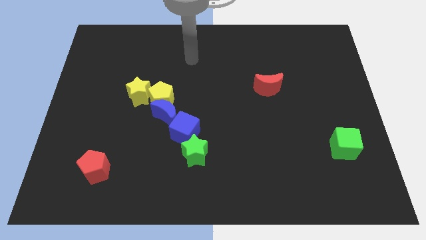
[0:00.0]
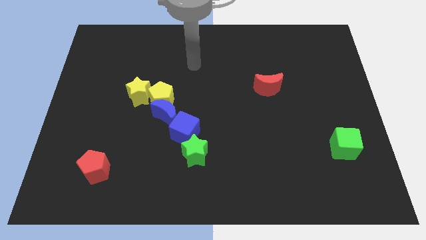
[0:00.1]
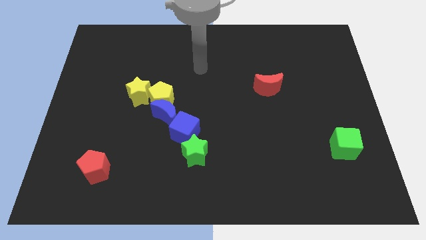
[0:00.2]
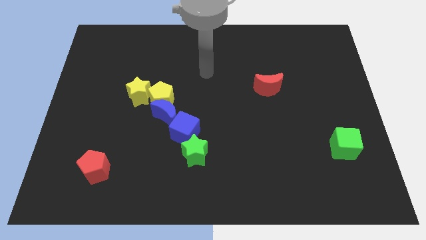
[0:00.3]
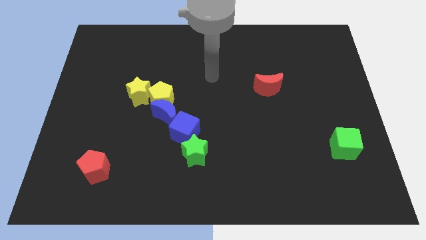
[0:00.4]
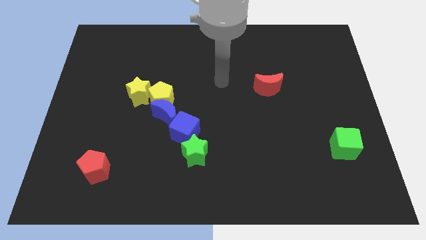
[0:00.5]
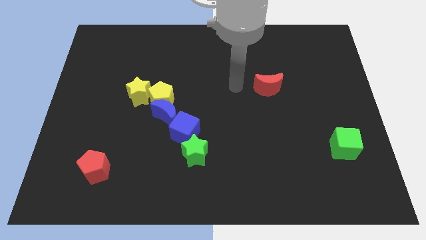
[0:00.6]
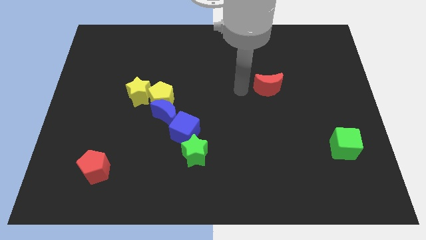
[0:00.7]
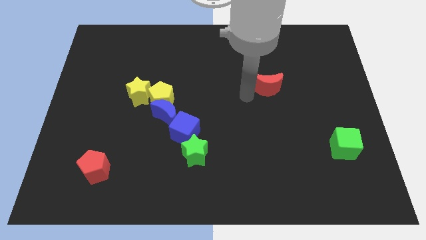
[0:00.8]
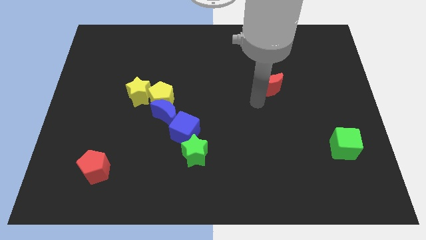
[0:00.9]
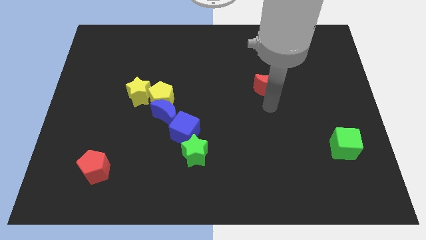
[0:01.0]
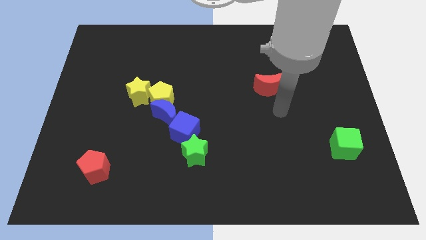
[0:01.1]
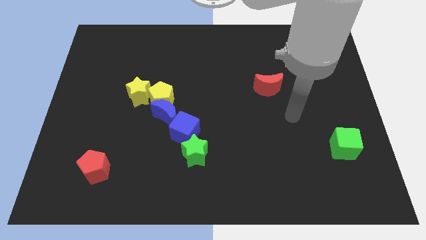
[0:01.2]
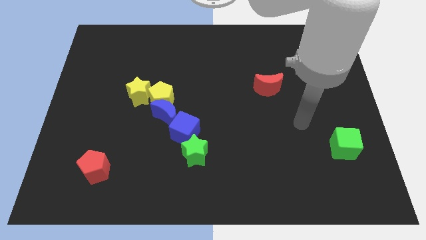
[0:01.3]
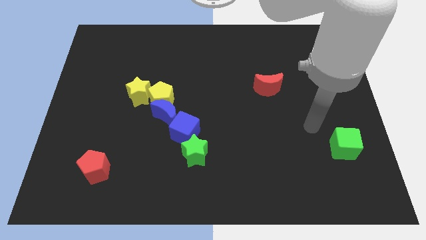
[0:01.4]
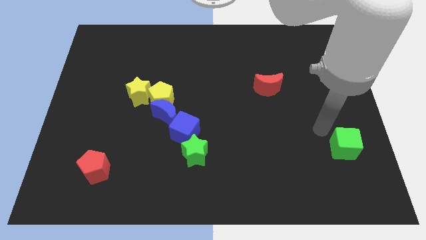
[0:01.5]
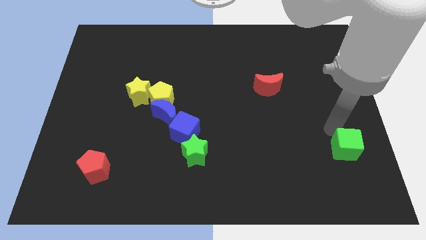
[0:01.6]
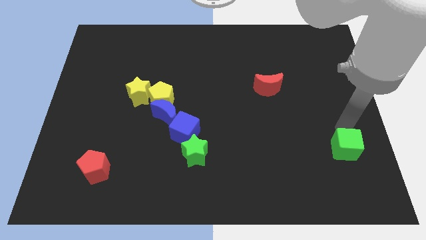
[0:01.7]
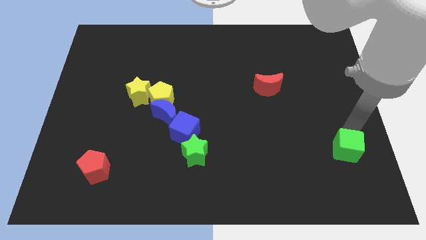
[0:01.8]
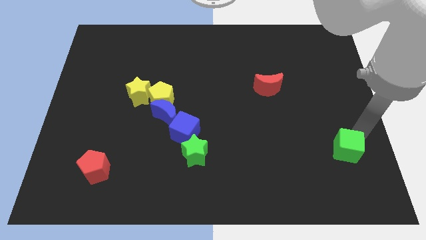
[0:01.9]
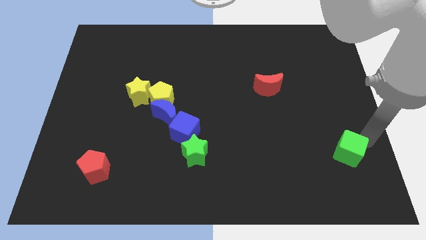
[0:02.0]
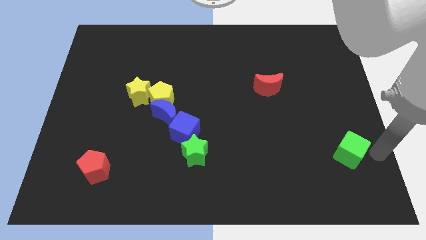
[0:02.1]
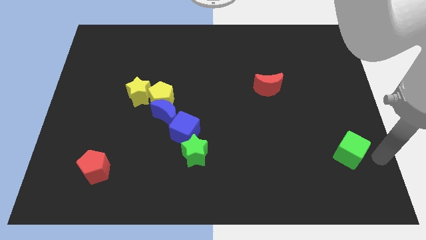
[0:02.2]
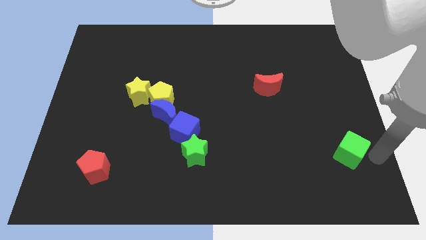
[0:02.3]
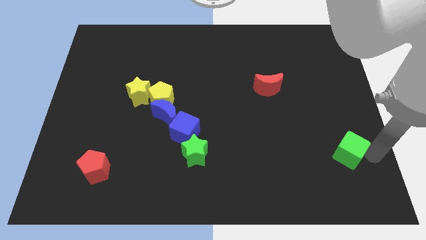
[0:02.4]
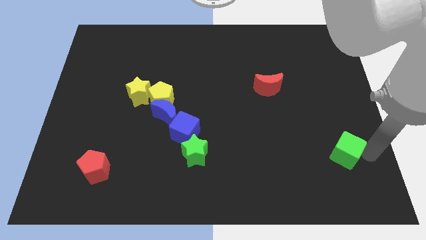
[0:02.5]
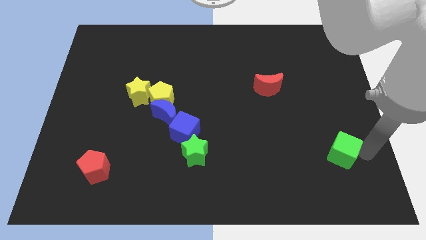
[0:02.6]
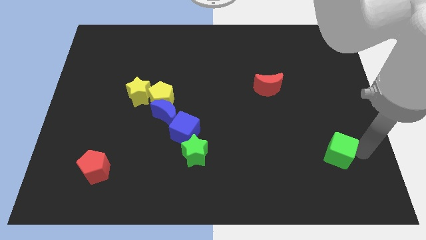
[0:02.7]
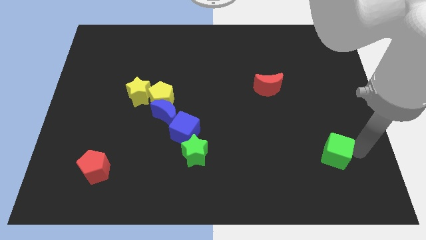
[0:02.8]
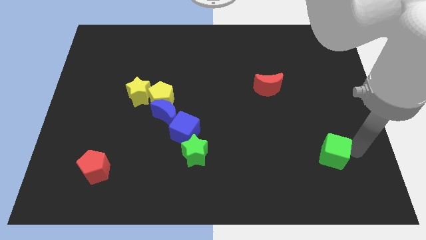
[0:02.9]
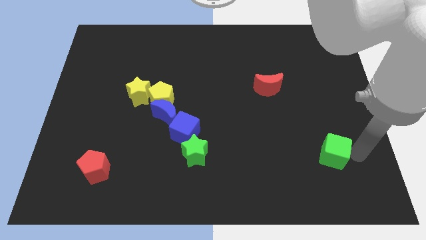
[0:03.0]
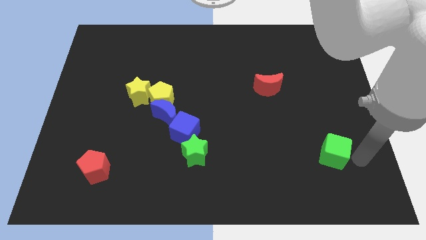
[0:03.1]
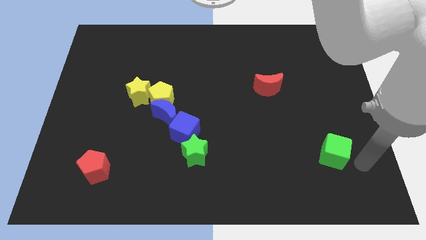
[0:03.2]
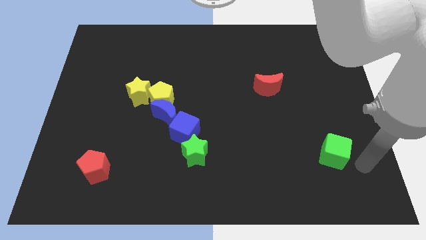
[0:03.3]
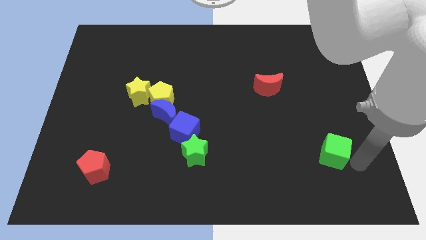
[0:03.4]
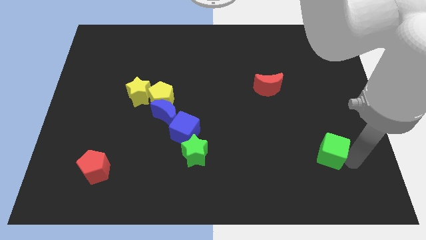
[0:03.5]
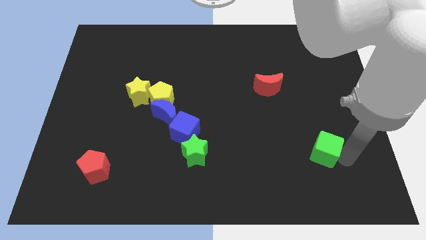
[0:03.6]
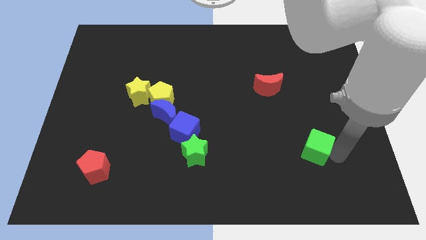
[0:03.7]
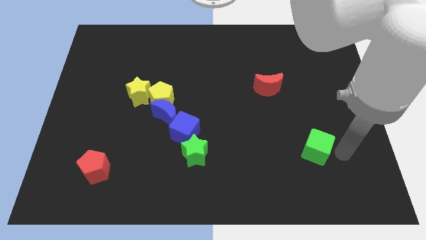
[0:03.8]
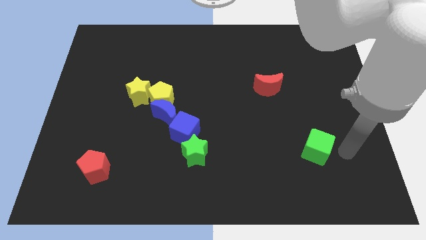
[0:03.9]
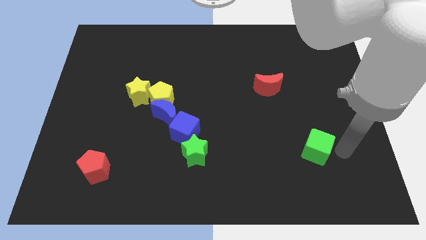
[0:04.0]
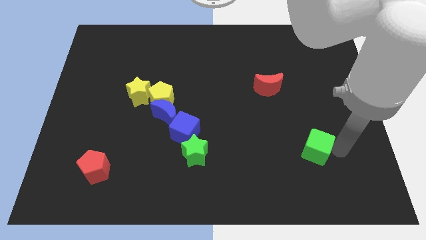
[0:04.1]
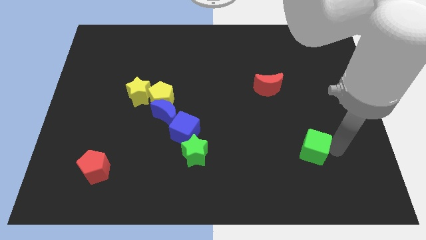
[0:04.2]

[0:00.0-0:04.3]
slightly move the green cube to the left

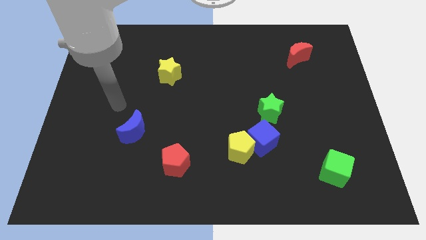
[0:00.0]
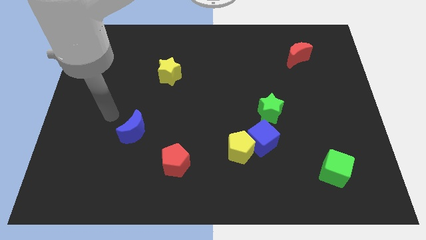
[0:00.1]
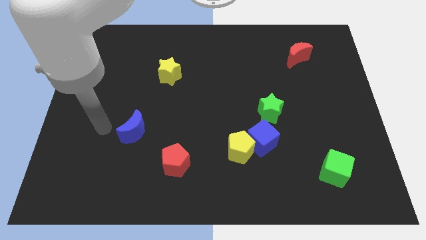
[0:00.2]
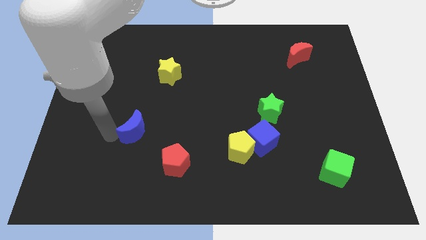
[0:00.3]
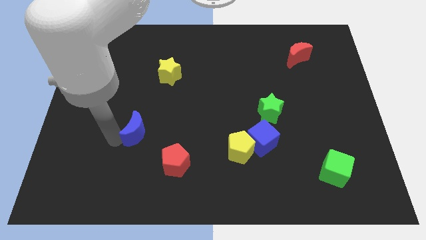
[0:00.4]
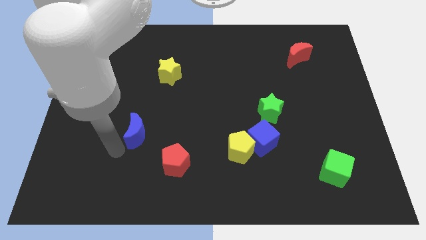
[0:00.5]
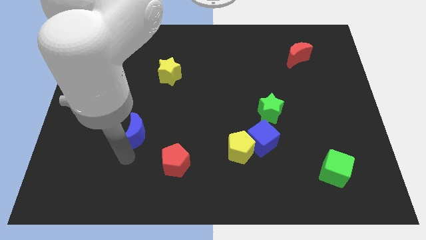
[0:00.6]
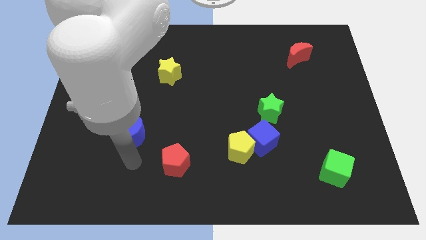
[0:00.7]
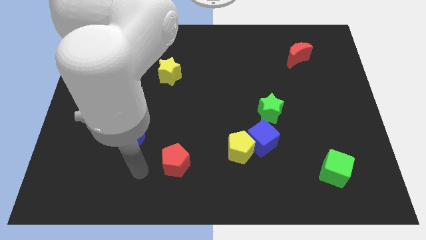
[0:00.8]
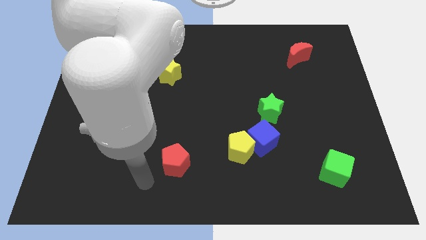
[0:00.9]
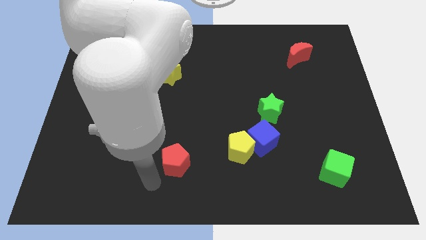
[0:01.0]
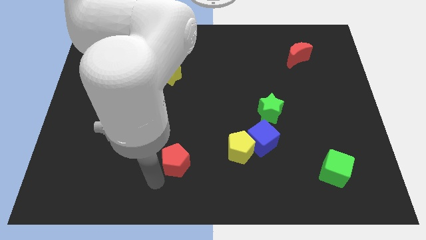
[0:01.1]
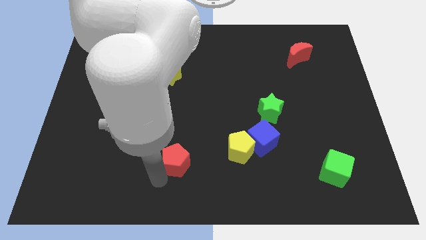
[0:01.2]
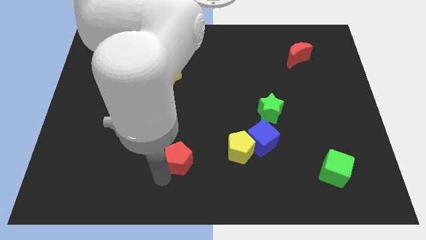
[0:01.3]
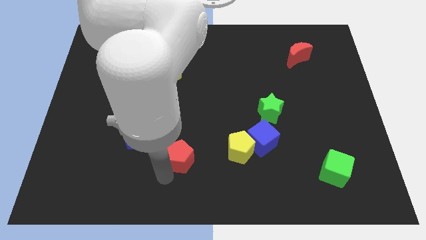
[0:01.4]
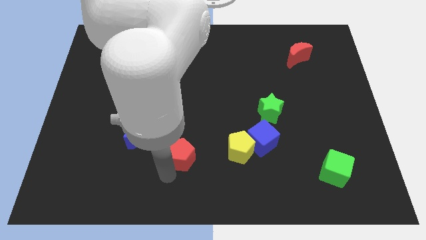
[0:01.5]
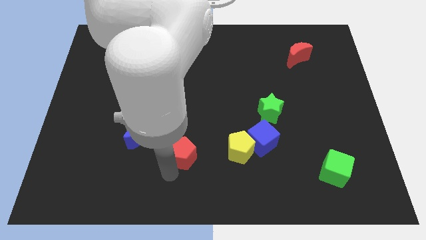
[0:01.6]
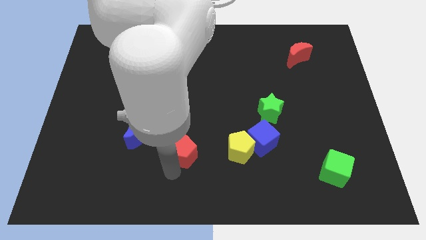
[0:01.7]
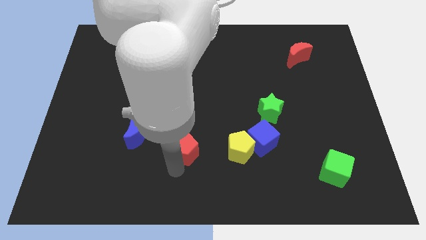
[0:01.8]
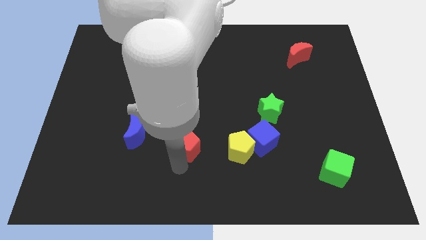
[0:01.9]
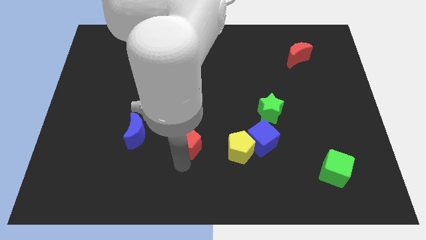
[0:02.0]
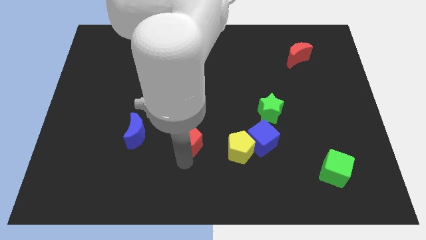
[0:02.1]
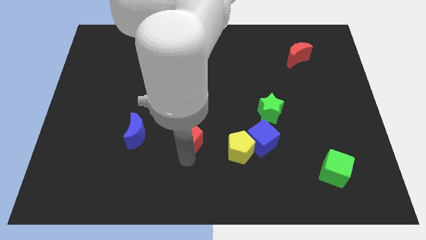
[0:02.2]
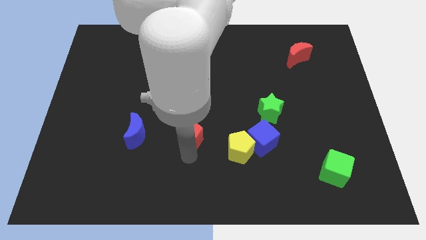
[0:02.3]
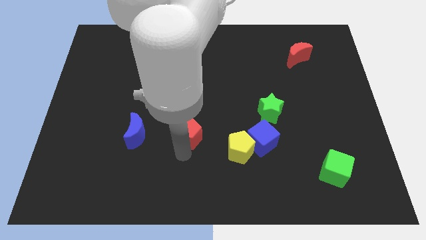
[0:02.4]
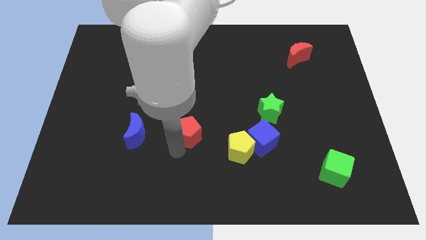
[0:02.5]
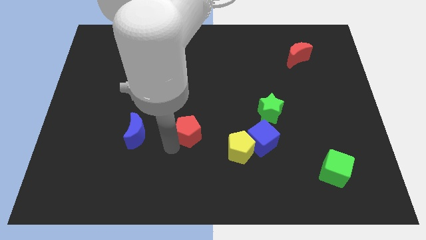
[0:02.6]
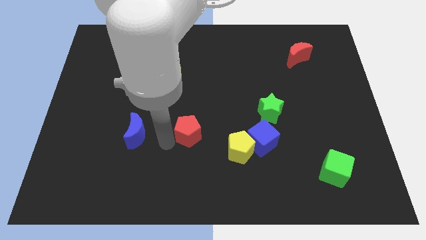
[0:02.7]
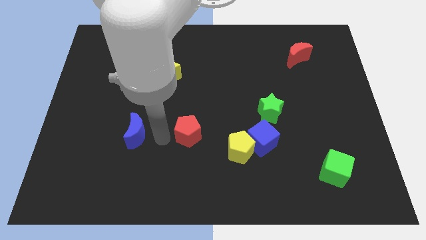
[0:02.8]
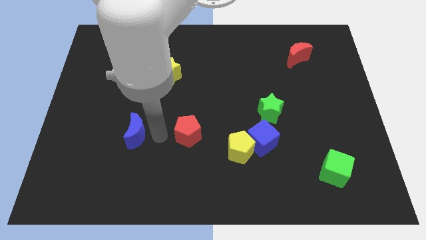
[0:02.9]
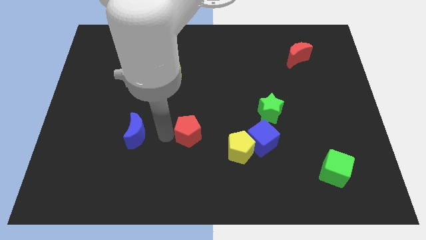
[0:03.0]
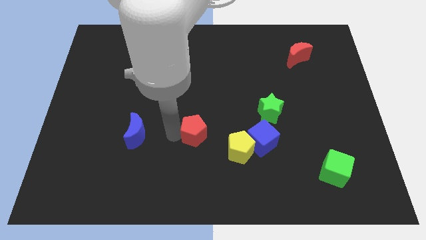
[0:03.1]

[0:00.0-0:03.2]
push the red pentagon up and right diagonally somewhat

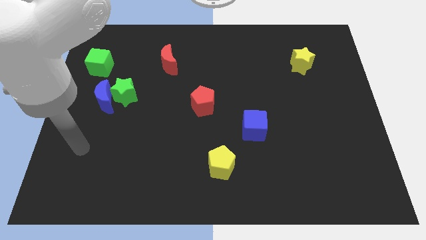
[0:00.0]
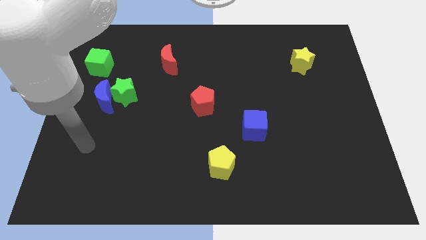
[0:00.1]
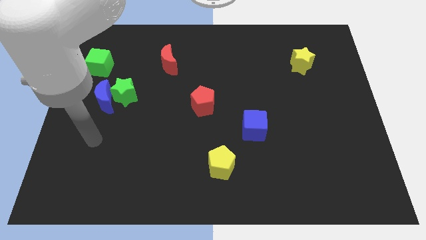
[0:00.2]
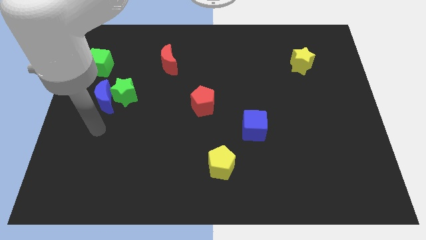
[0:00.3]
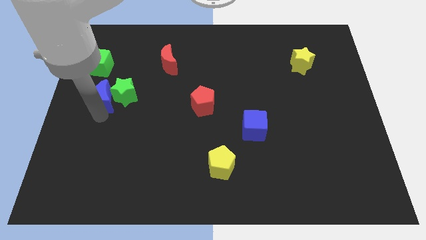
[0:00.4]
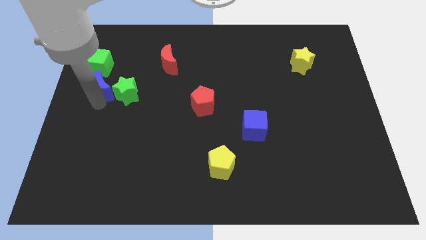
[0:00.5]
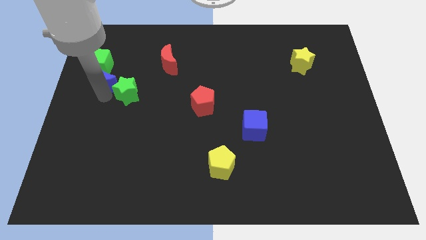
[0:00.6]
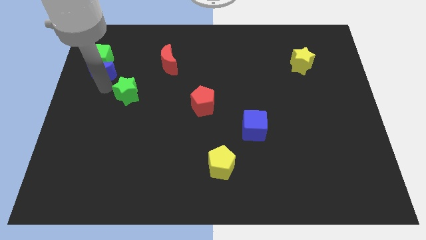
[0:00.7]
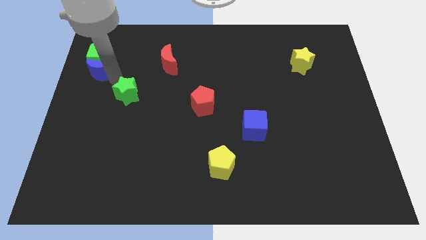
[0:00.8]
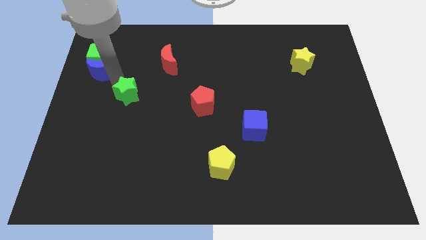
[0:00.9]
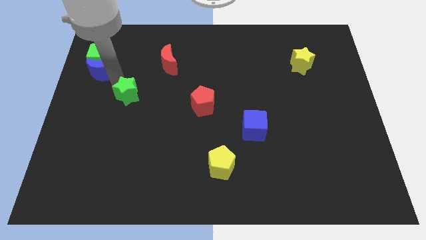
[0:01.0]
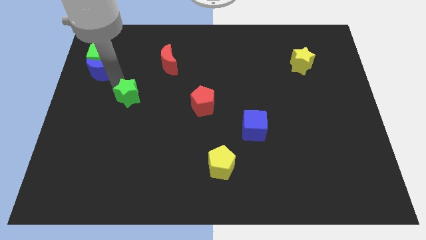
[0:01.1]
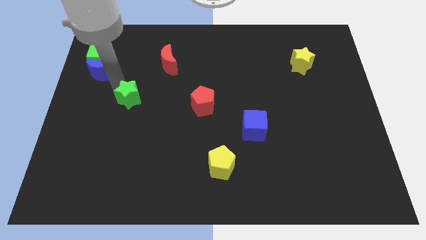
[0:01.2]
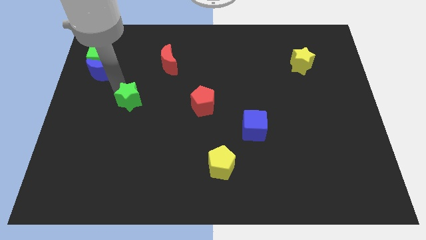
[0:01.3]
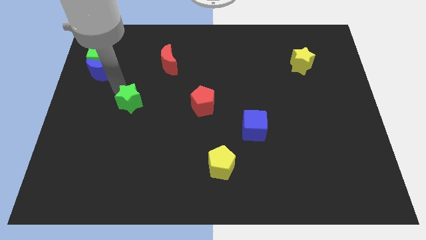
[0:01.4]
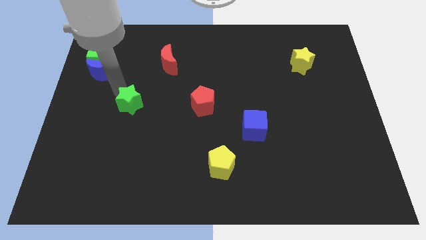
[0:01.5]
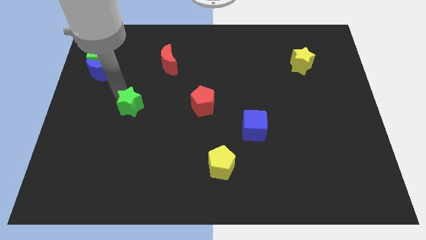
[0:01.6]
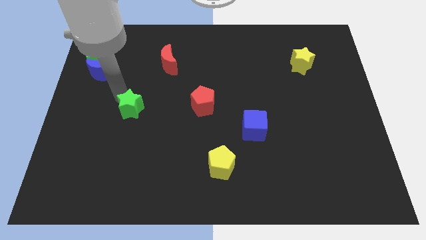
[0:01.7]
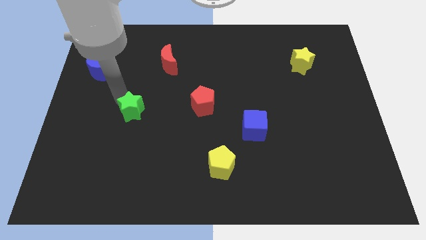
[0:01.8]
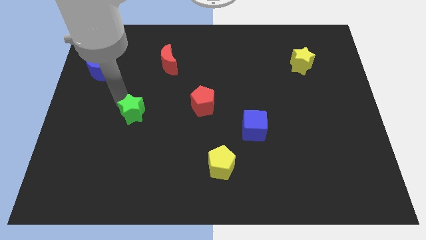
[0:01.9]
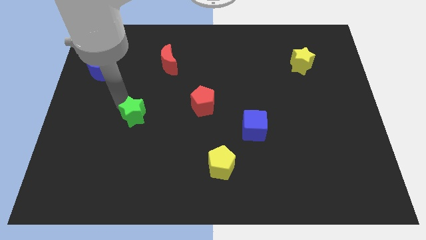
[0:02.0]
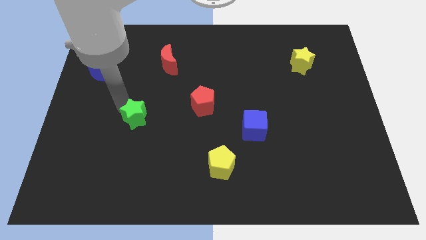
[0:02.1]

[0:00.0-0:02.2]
push the green star down and to the right diagonally a little bit
